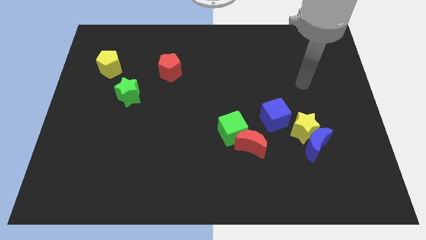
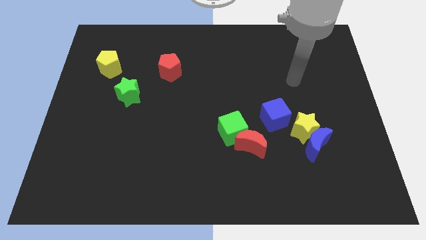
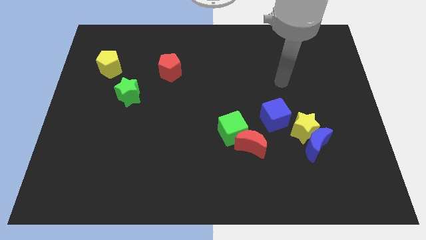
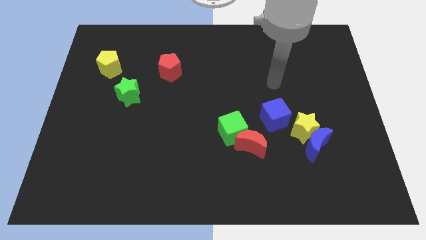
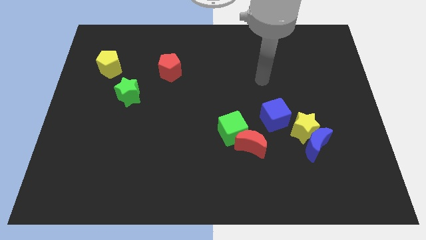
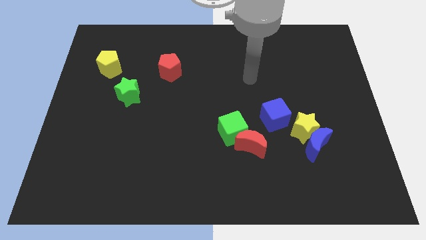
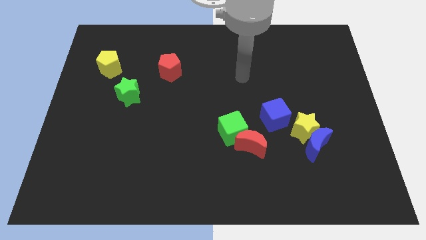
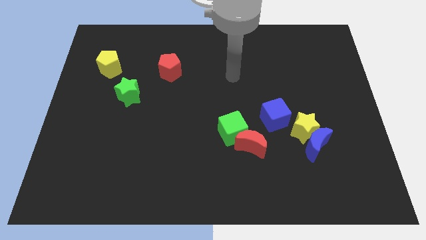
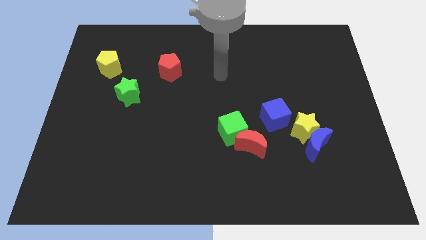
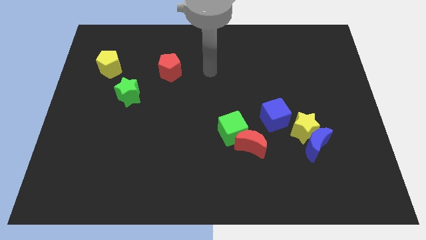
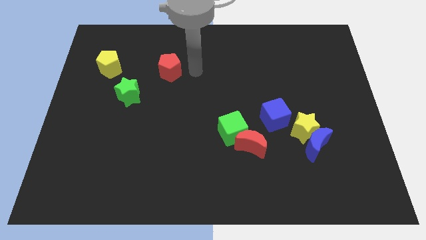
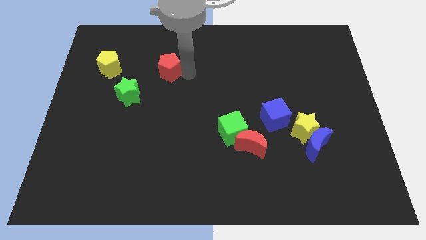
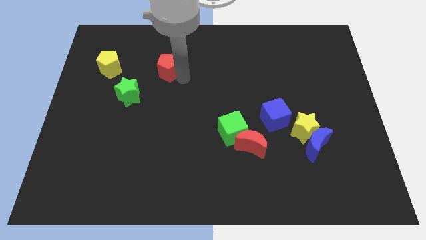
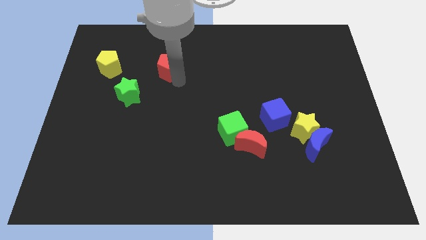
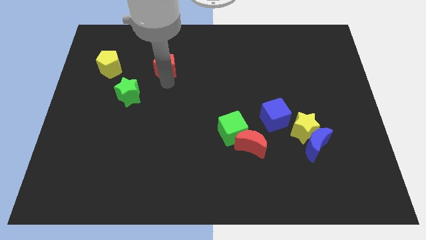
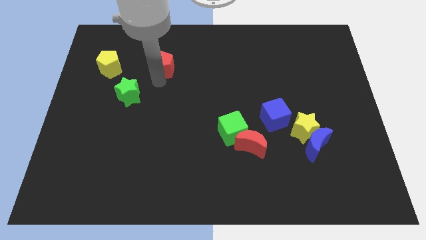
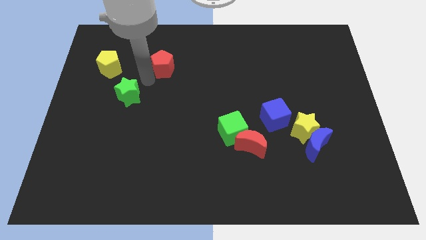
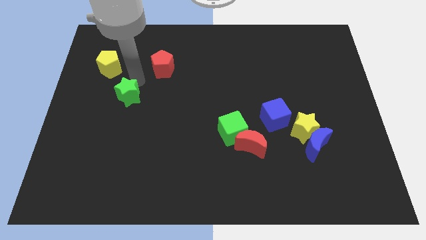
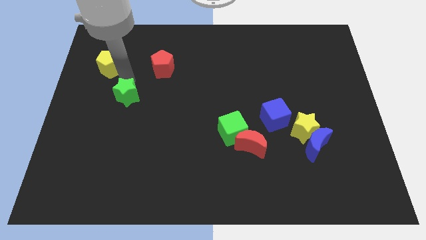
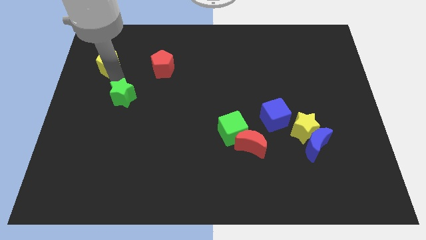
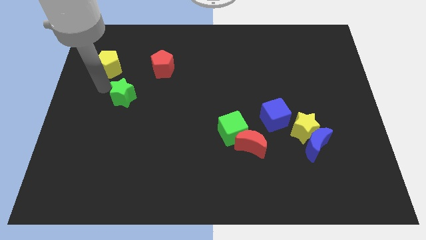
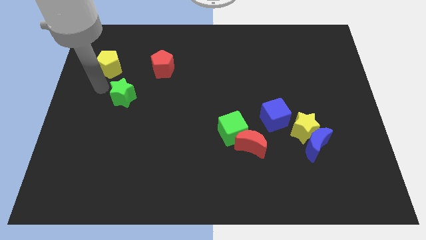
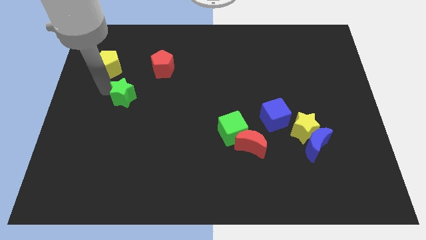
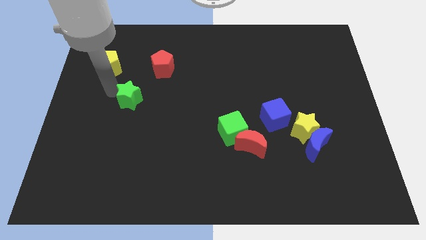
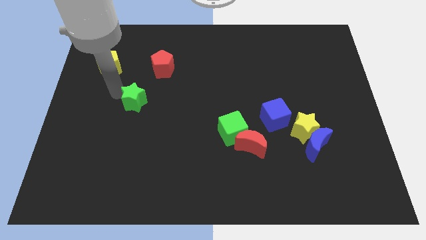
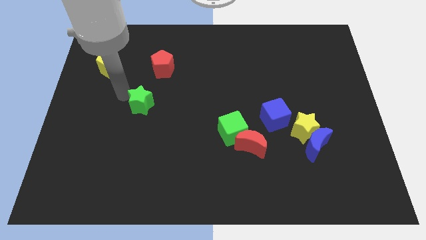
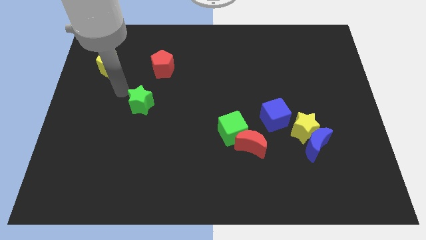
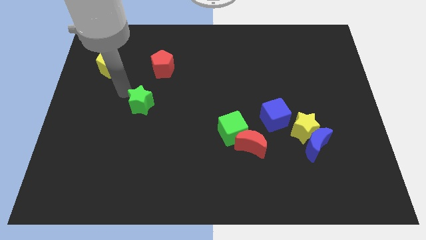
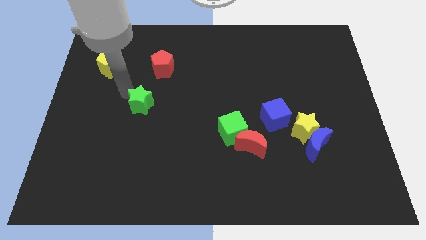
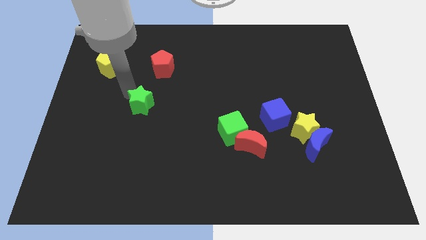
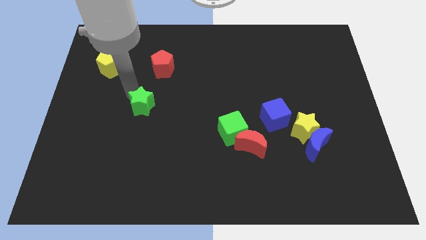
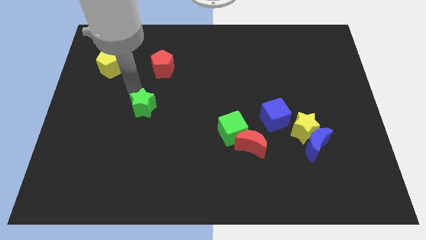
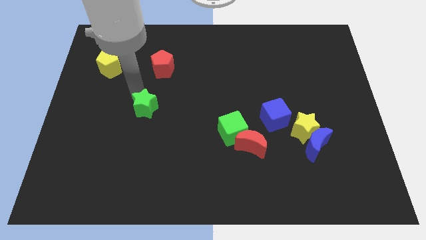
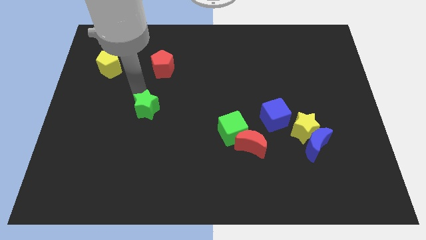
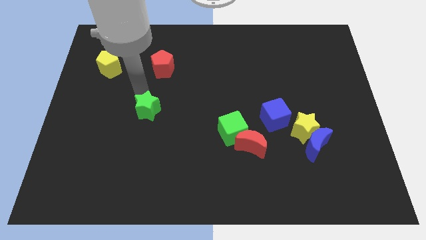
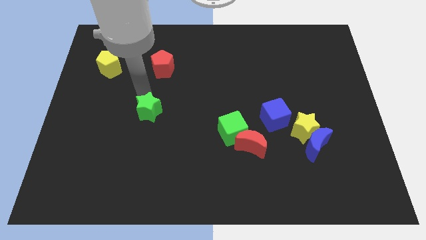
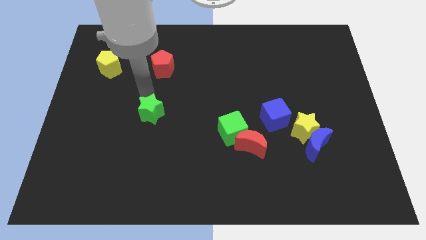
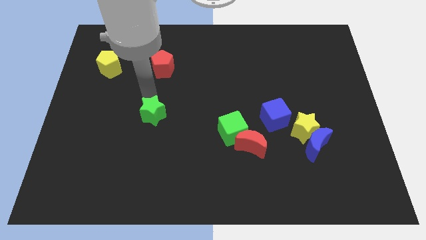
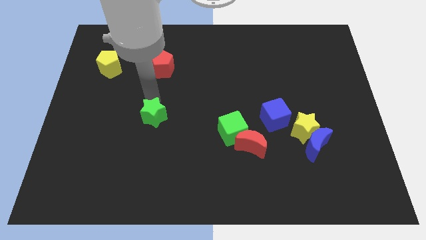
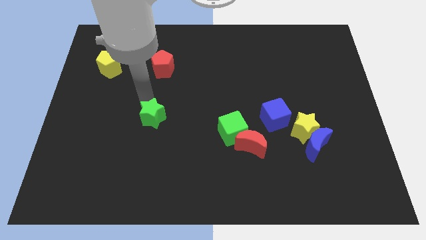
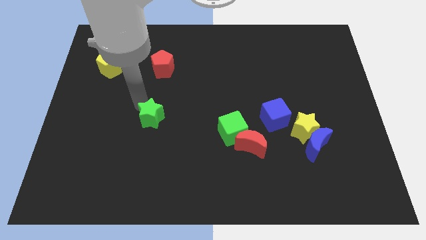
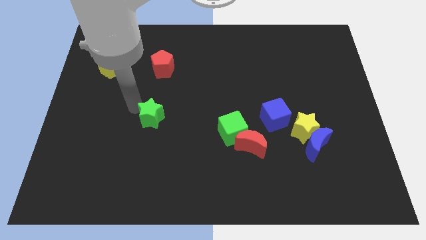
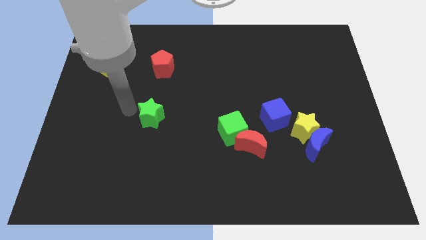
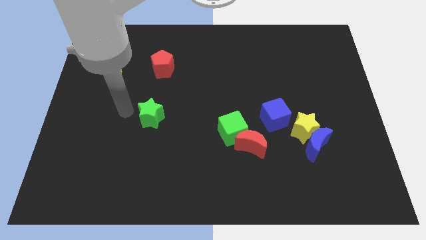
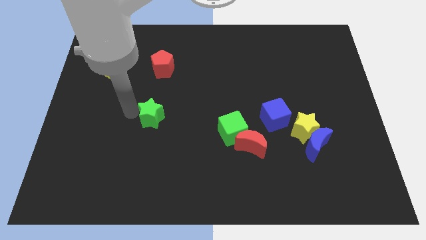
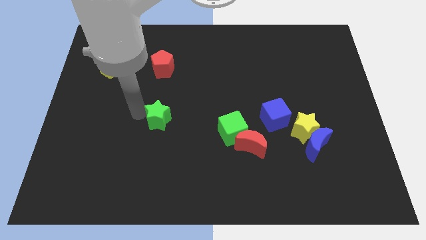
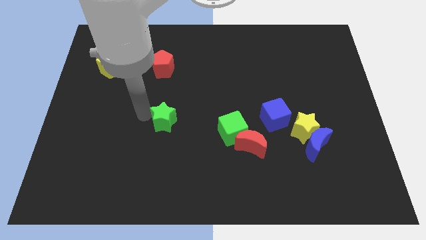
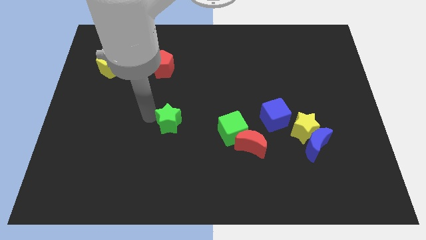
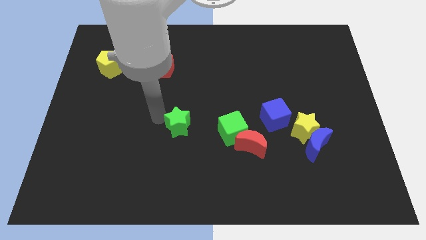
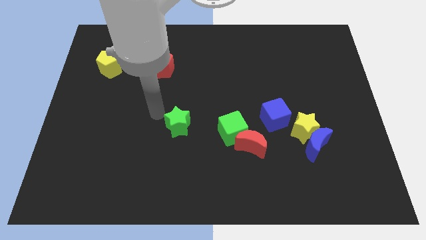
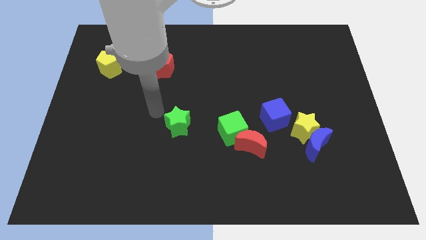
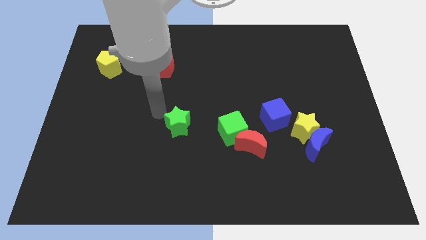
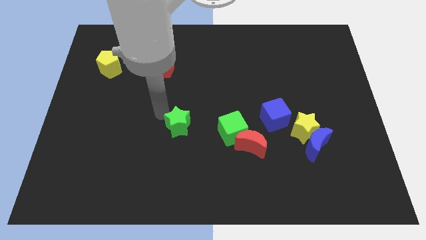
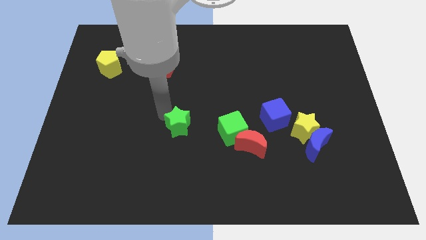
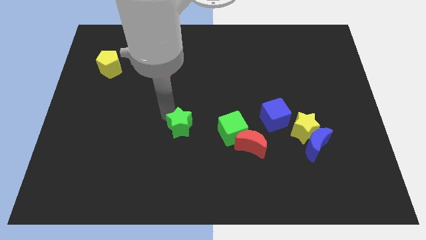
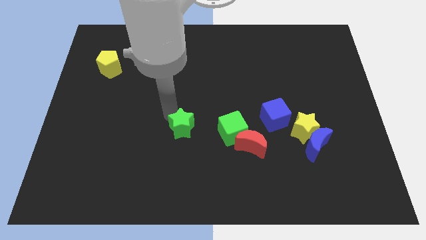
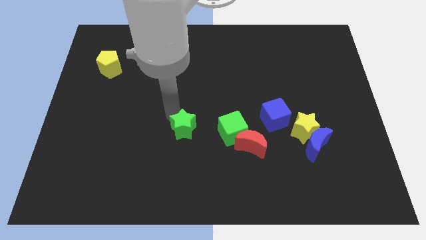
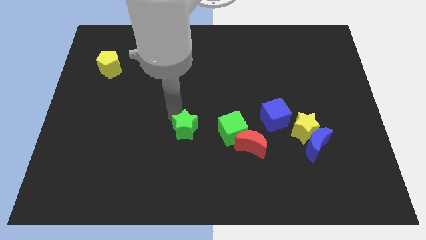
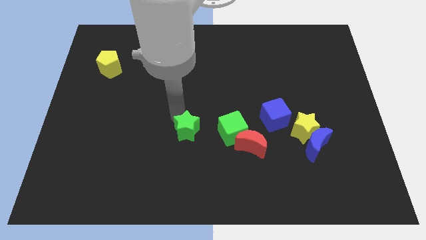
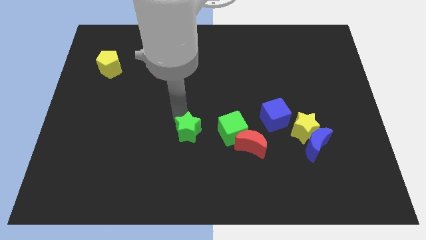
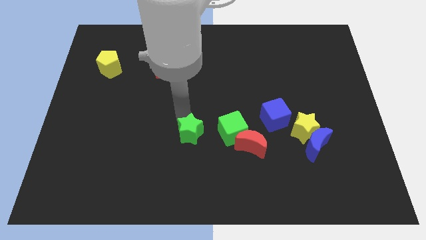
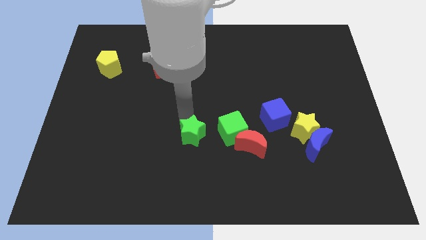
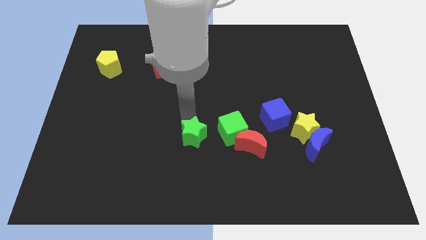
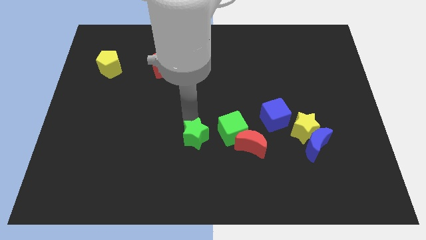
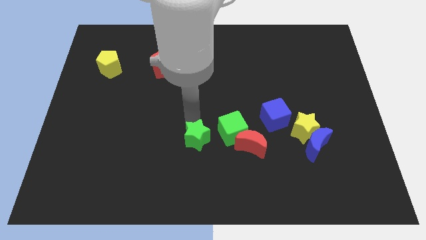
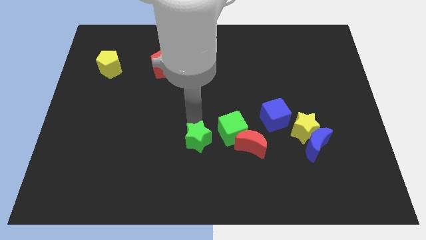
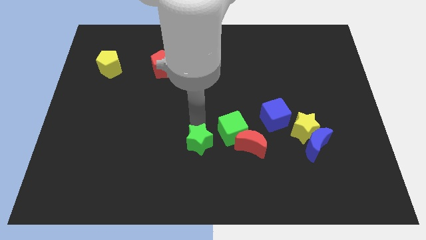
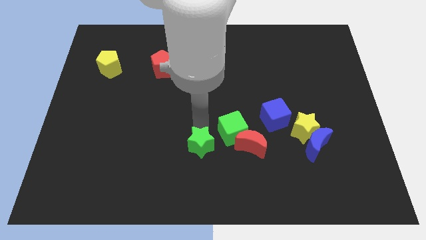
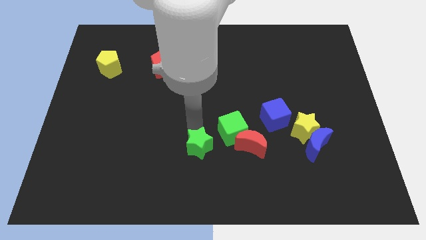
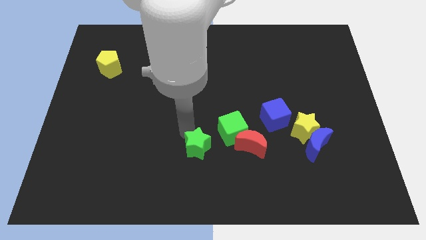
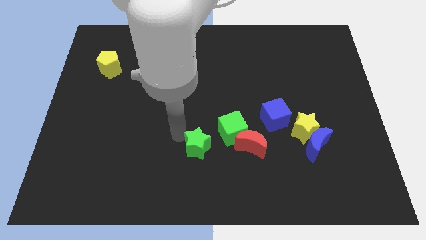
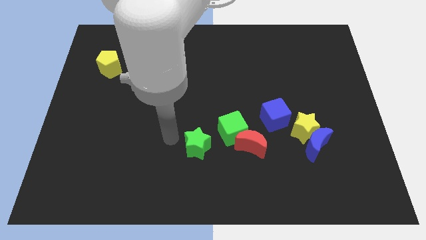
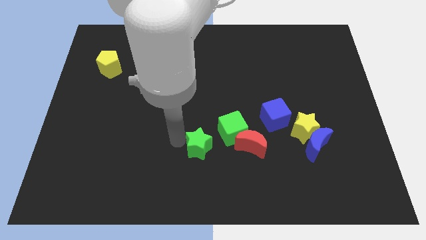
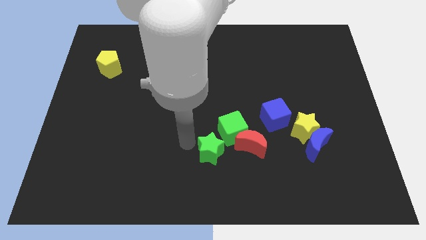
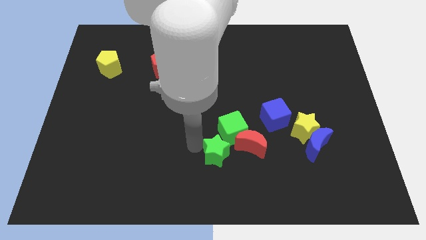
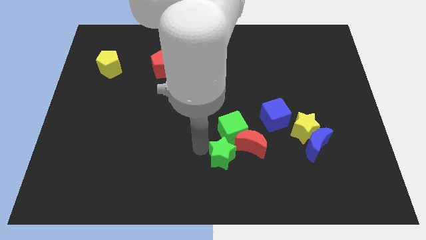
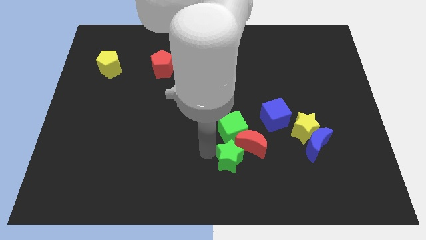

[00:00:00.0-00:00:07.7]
put the green star next to the red moon
